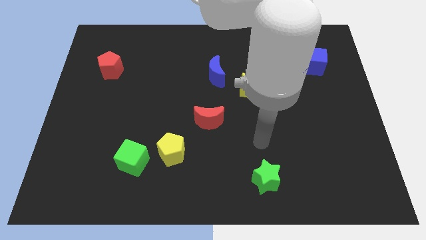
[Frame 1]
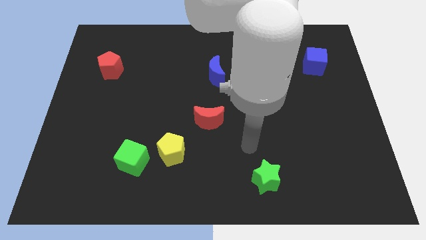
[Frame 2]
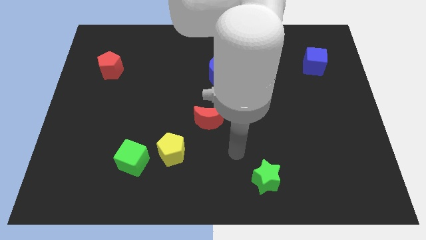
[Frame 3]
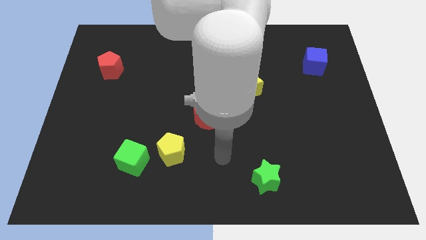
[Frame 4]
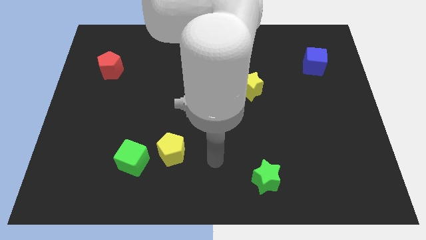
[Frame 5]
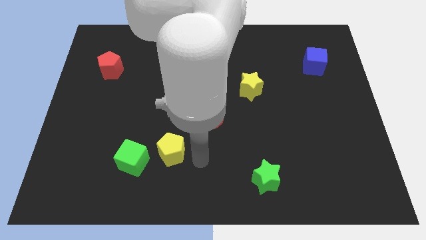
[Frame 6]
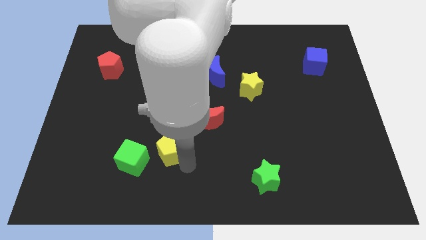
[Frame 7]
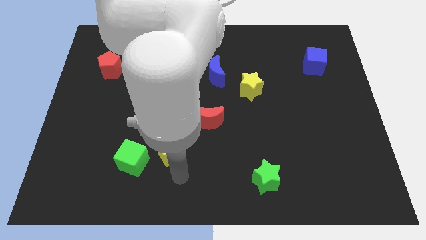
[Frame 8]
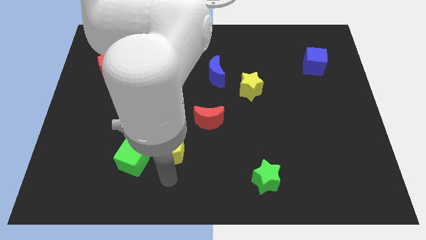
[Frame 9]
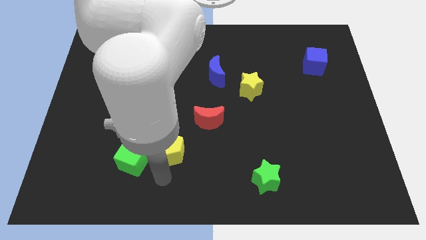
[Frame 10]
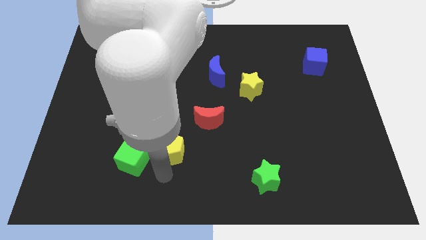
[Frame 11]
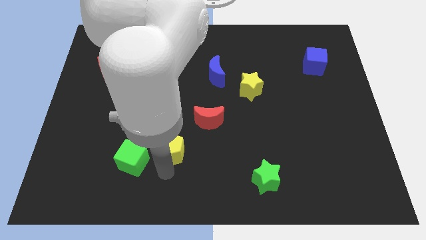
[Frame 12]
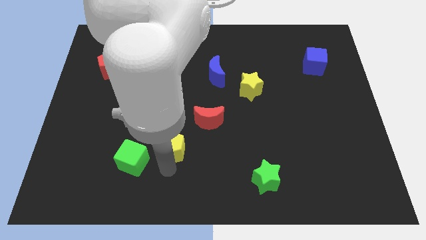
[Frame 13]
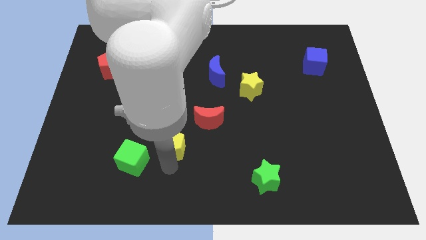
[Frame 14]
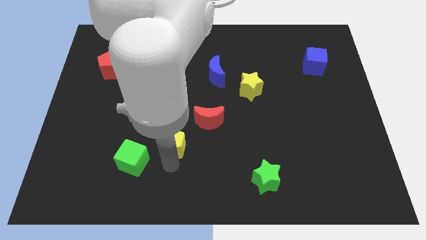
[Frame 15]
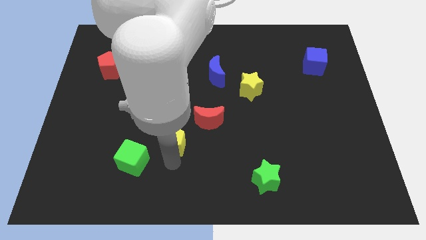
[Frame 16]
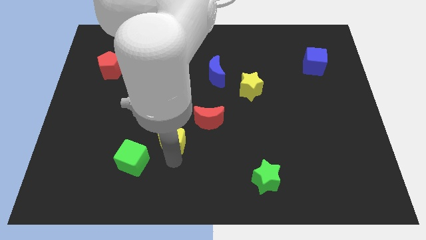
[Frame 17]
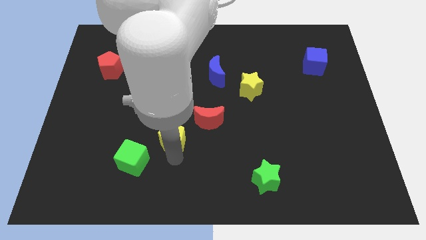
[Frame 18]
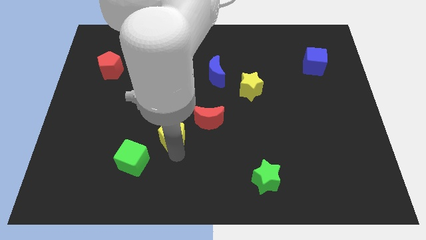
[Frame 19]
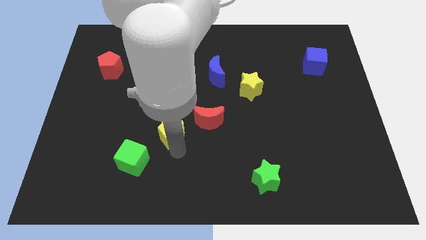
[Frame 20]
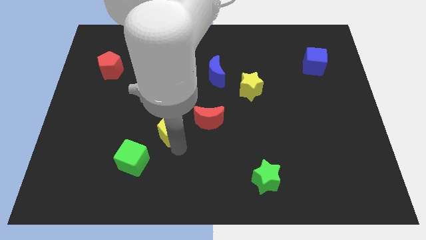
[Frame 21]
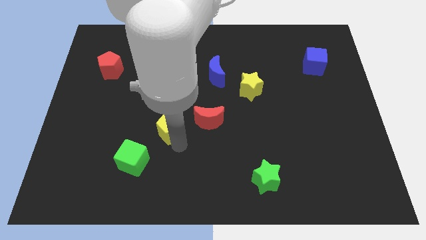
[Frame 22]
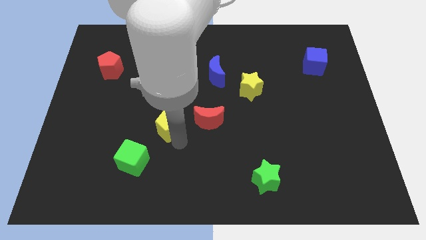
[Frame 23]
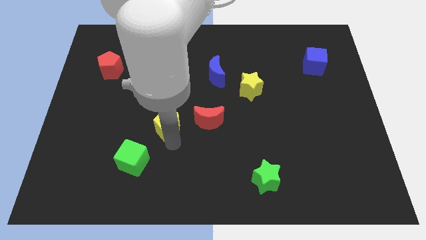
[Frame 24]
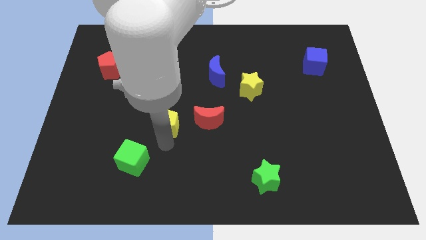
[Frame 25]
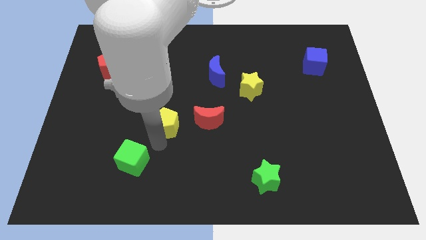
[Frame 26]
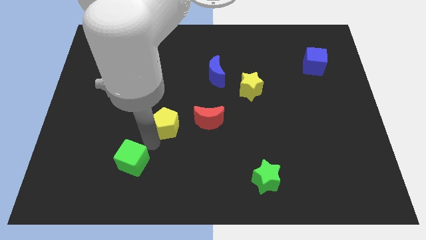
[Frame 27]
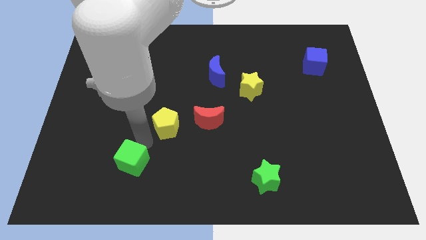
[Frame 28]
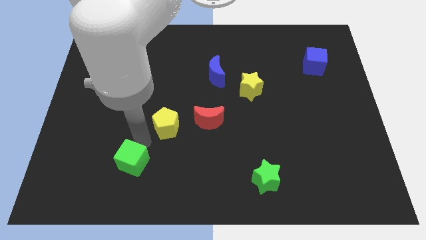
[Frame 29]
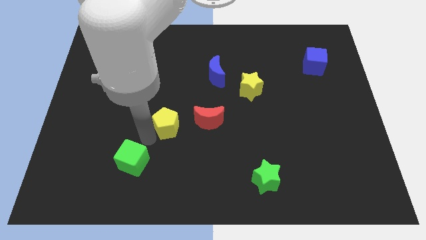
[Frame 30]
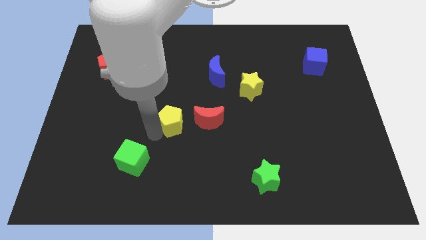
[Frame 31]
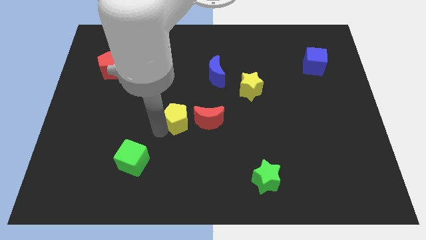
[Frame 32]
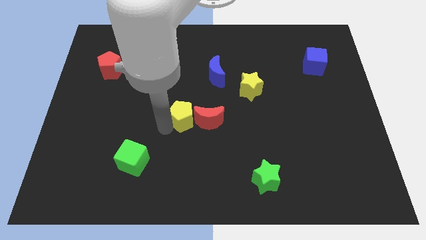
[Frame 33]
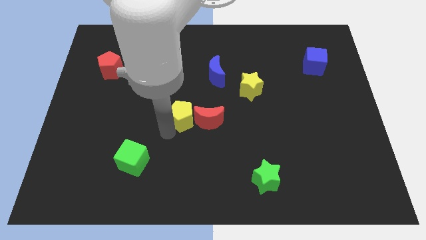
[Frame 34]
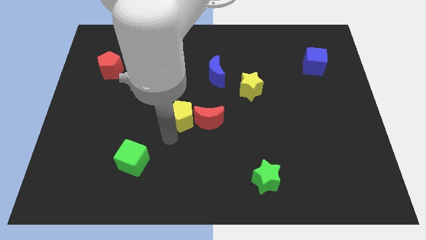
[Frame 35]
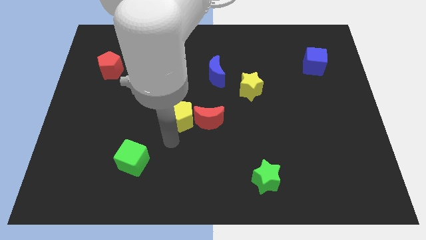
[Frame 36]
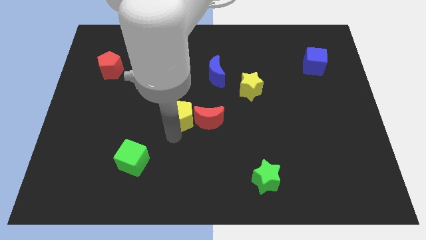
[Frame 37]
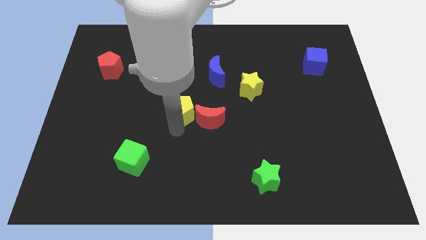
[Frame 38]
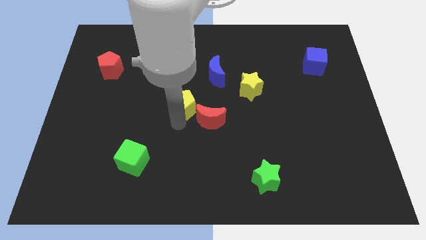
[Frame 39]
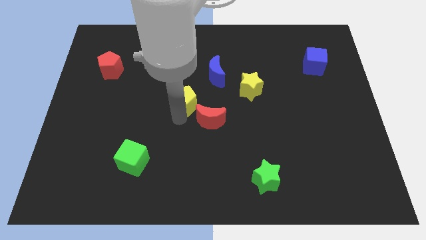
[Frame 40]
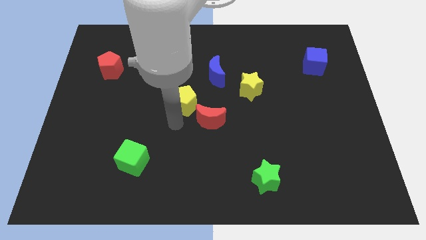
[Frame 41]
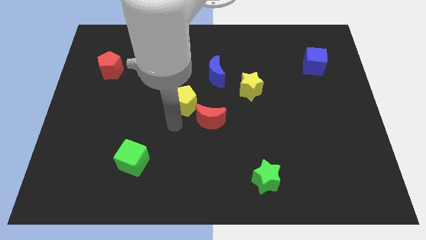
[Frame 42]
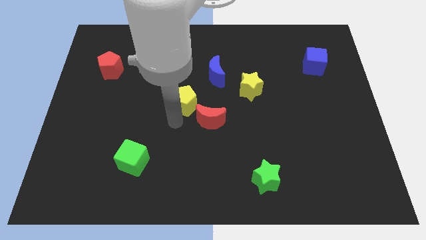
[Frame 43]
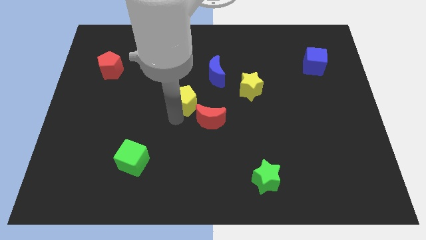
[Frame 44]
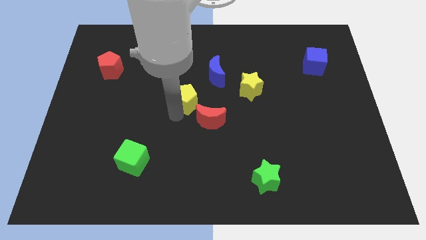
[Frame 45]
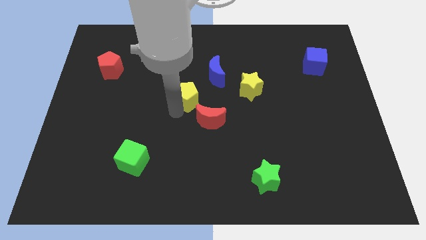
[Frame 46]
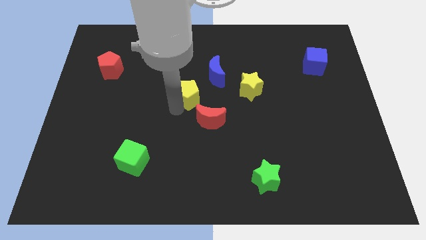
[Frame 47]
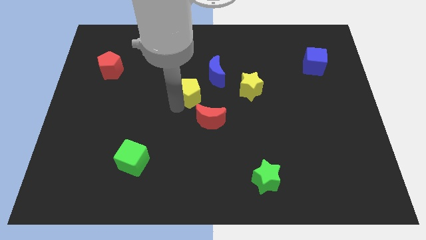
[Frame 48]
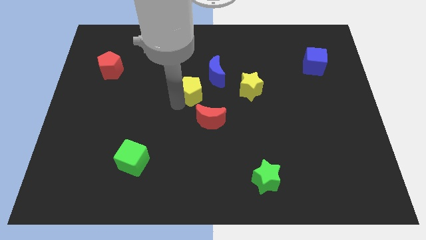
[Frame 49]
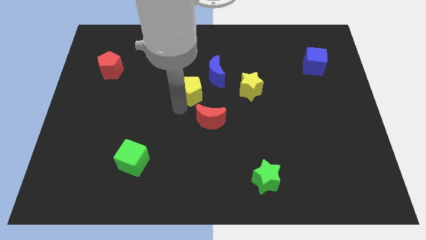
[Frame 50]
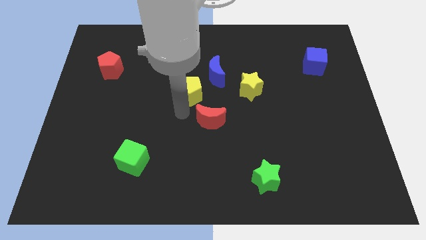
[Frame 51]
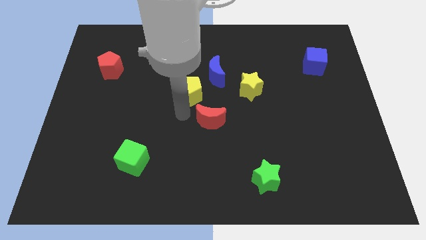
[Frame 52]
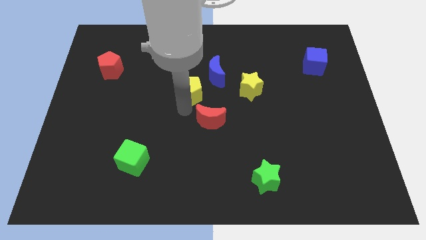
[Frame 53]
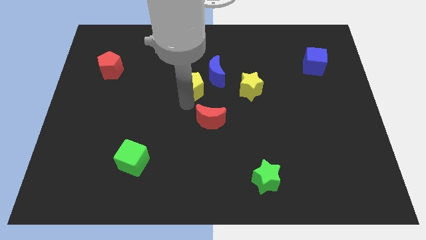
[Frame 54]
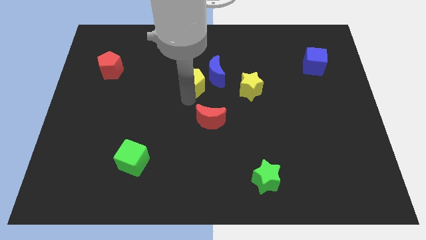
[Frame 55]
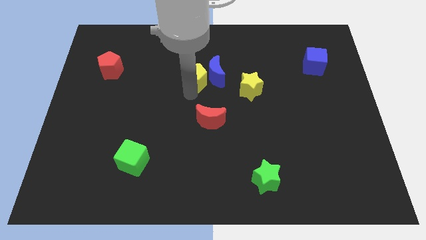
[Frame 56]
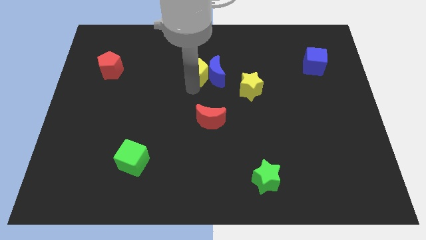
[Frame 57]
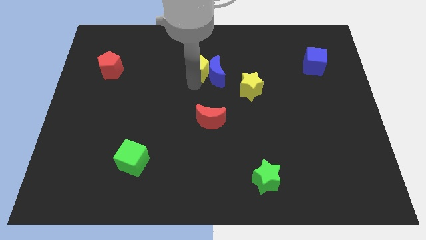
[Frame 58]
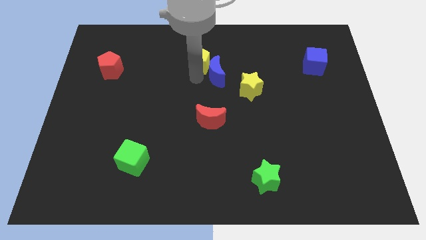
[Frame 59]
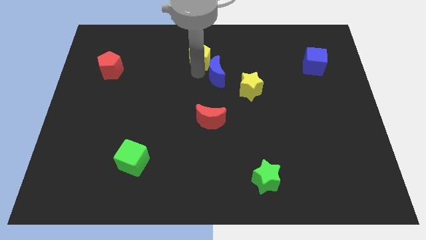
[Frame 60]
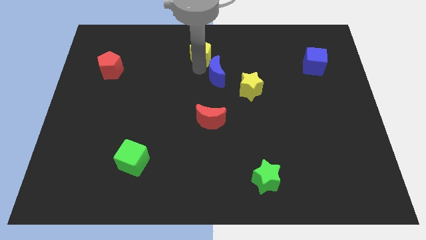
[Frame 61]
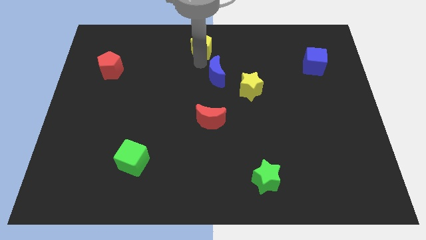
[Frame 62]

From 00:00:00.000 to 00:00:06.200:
slide the yellow pentagon to the top side
